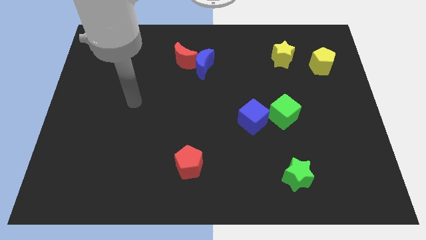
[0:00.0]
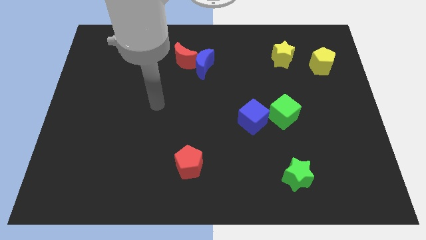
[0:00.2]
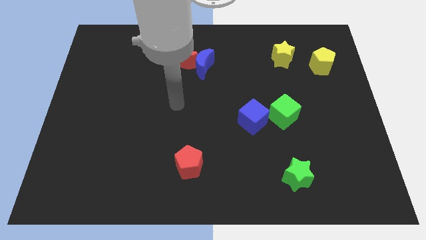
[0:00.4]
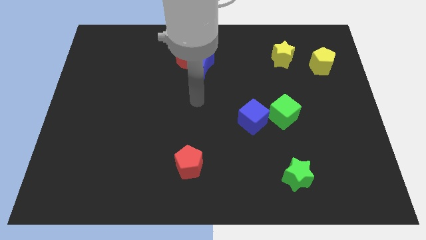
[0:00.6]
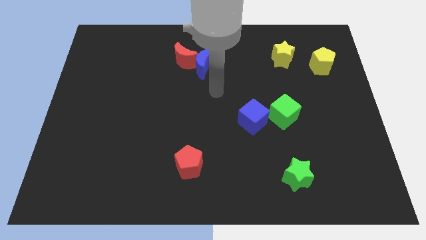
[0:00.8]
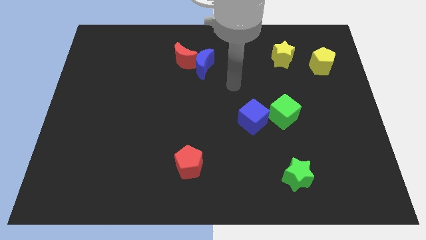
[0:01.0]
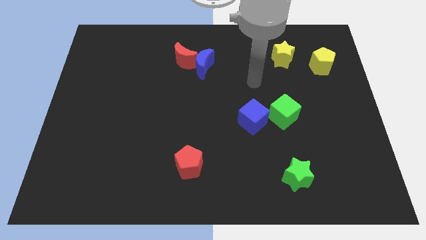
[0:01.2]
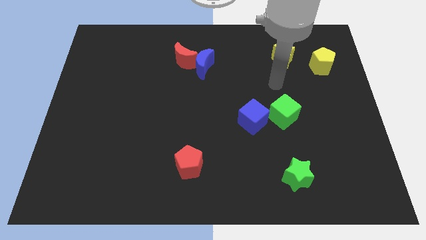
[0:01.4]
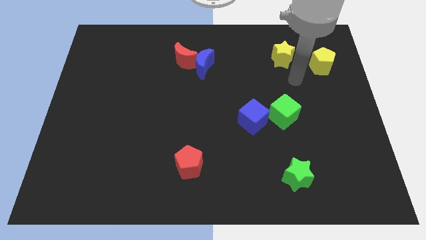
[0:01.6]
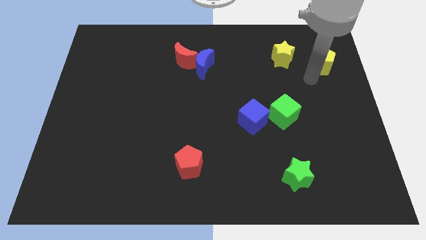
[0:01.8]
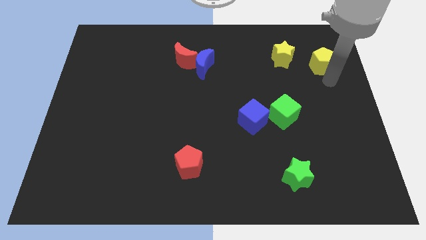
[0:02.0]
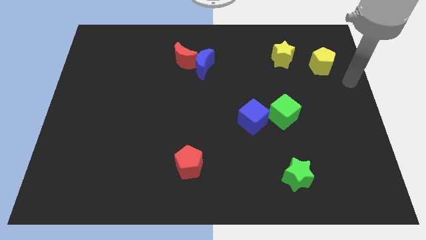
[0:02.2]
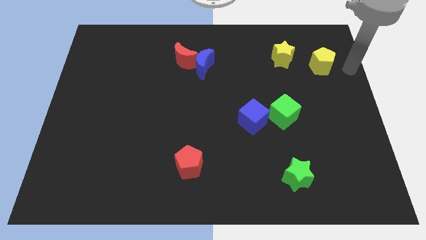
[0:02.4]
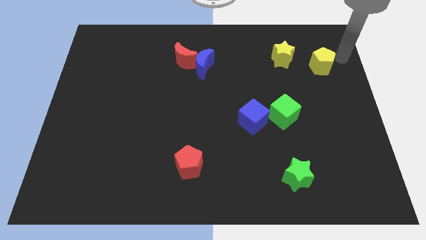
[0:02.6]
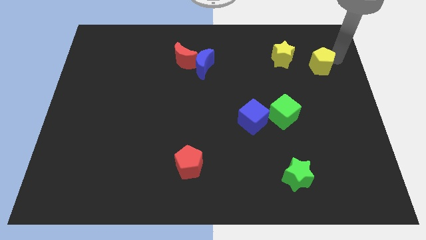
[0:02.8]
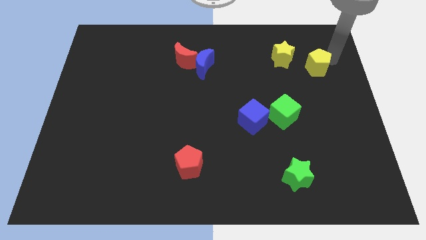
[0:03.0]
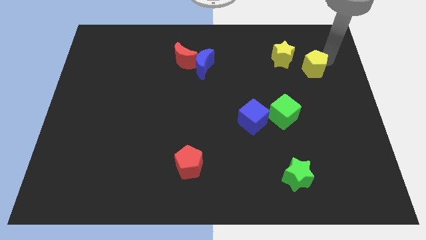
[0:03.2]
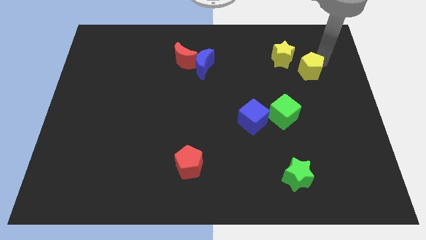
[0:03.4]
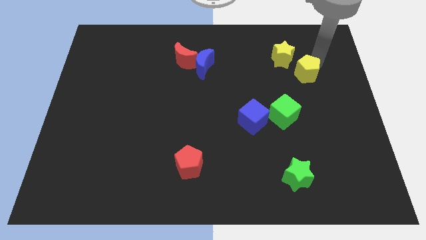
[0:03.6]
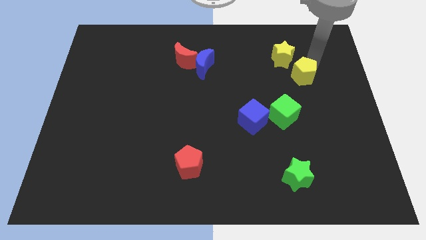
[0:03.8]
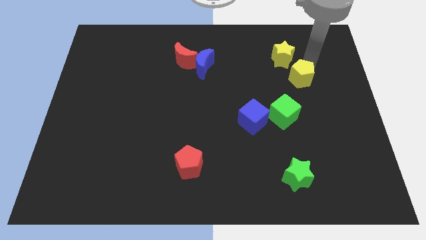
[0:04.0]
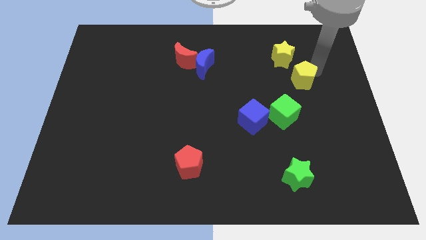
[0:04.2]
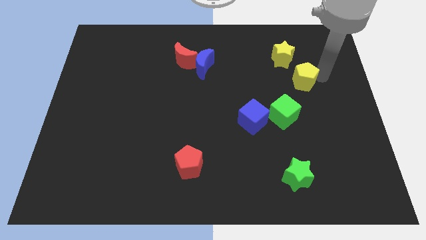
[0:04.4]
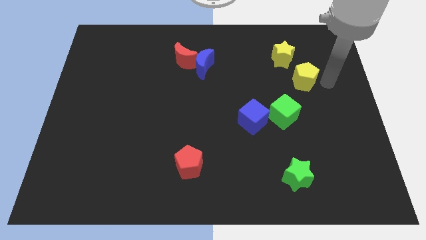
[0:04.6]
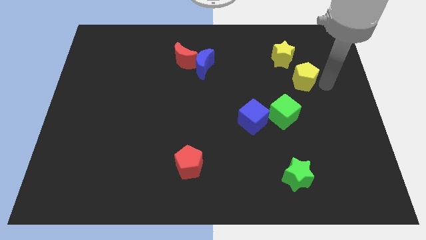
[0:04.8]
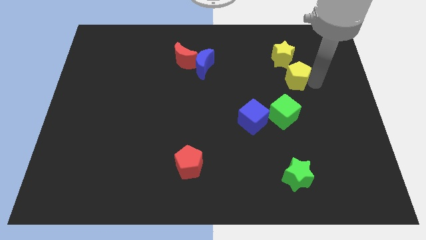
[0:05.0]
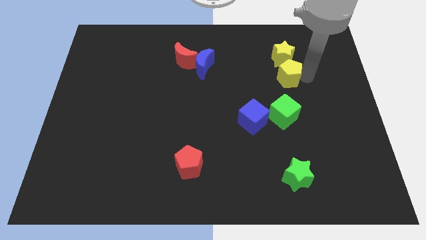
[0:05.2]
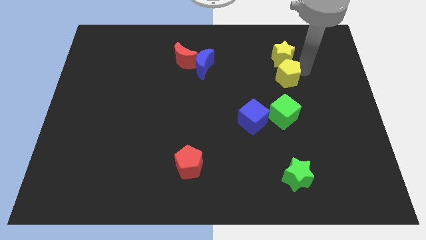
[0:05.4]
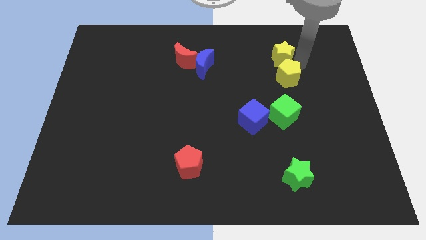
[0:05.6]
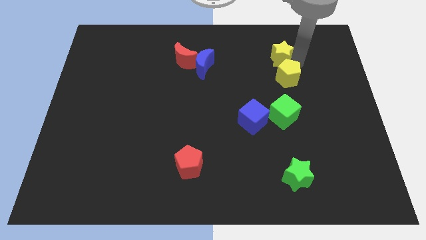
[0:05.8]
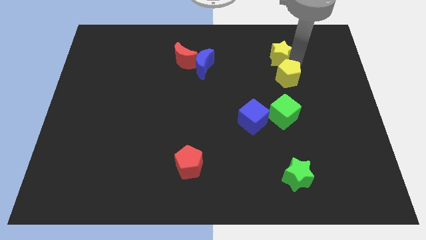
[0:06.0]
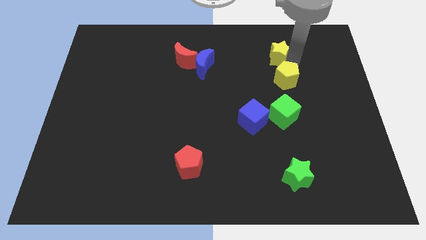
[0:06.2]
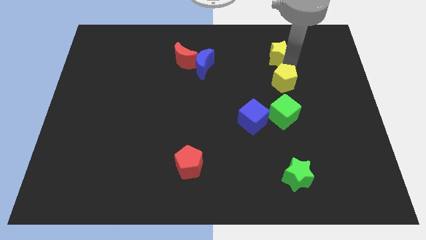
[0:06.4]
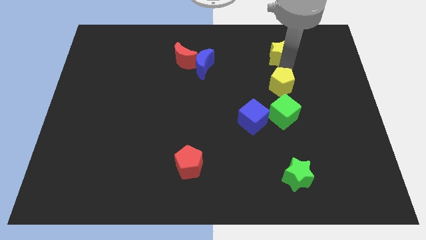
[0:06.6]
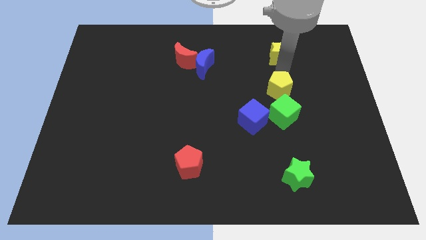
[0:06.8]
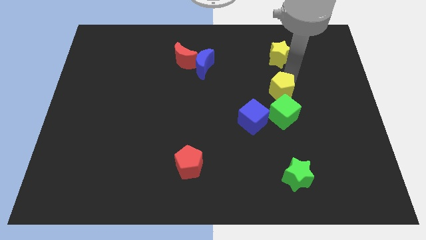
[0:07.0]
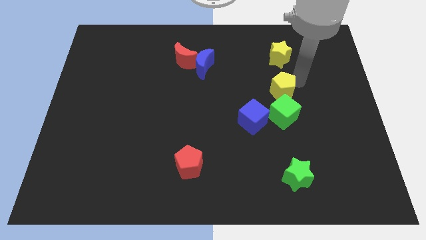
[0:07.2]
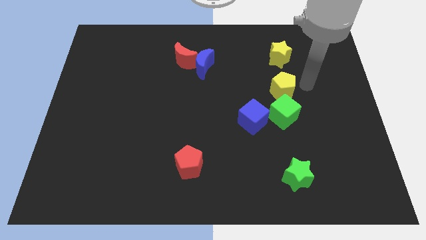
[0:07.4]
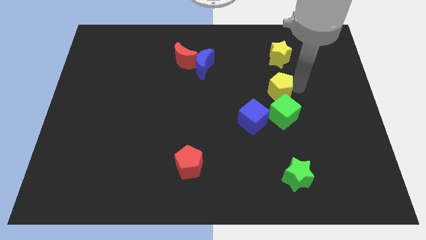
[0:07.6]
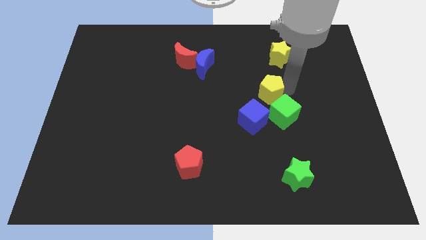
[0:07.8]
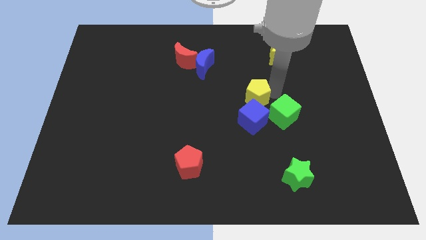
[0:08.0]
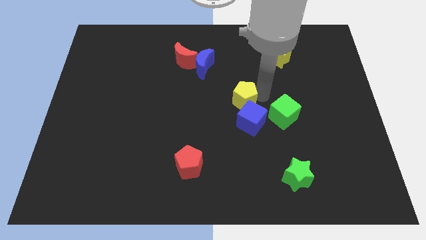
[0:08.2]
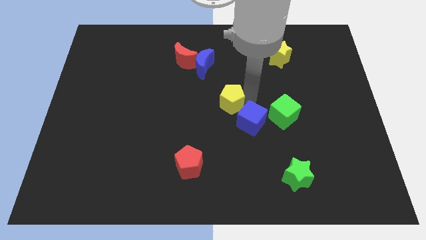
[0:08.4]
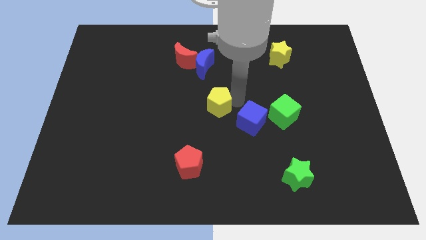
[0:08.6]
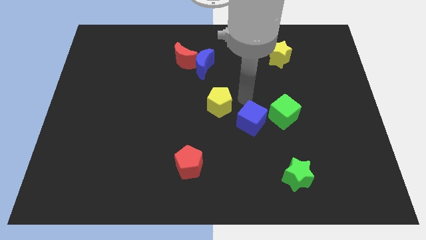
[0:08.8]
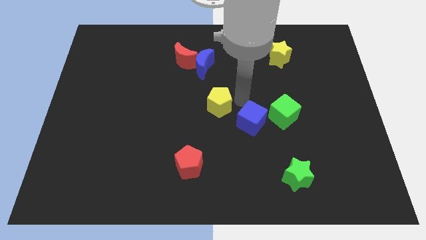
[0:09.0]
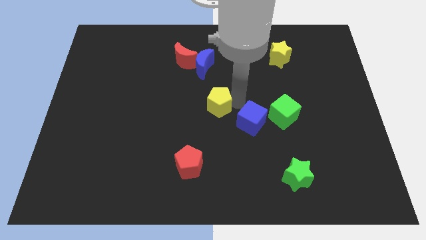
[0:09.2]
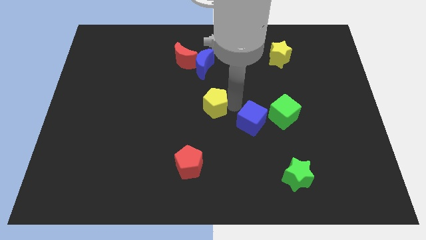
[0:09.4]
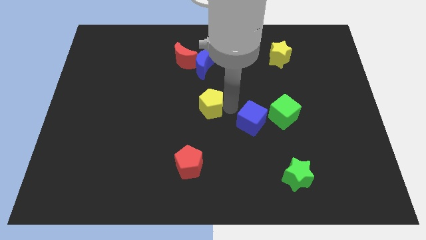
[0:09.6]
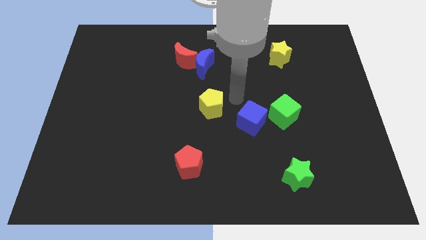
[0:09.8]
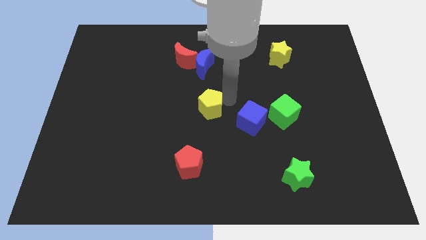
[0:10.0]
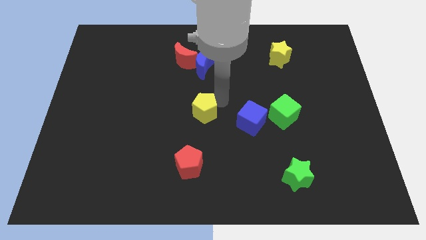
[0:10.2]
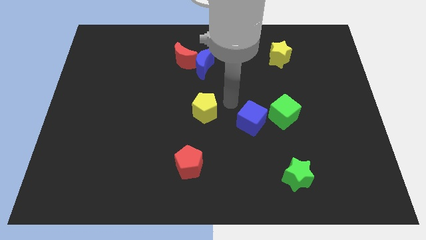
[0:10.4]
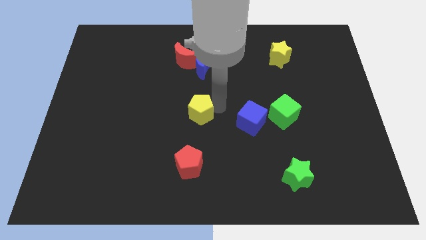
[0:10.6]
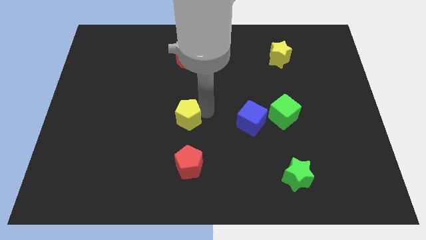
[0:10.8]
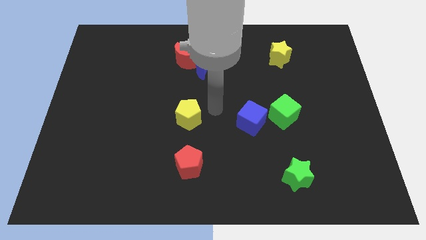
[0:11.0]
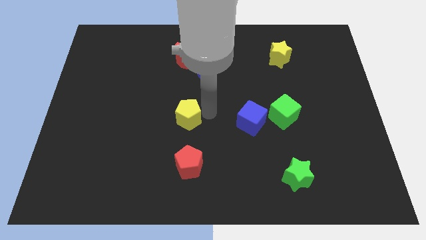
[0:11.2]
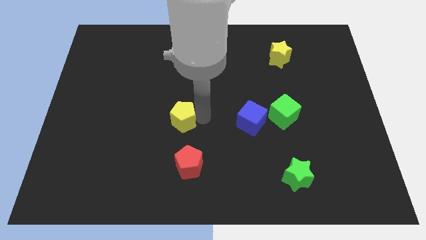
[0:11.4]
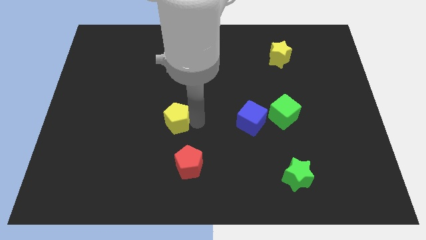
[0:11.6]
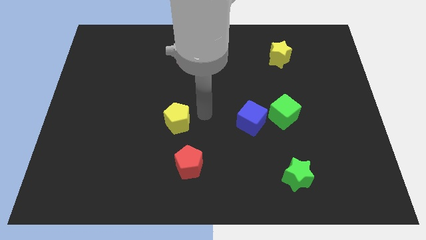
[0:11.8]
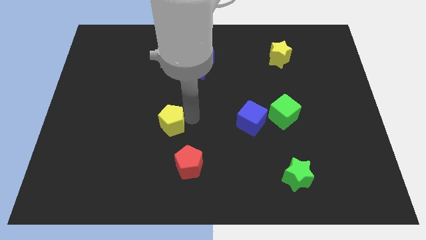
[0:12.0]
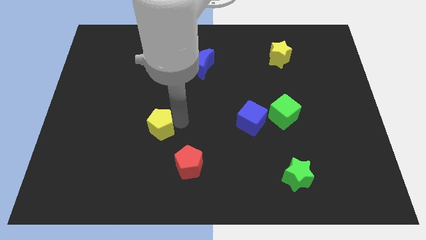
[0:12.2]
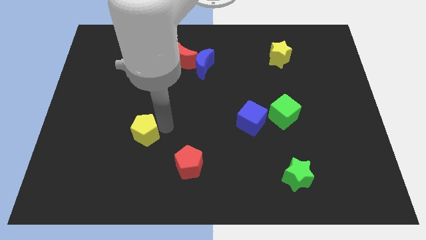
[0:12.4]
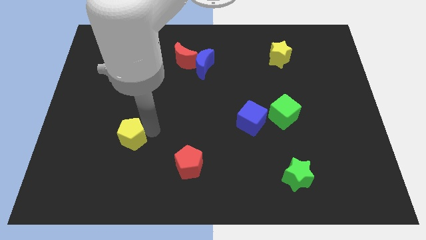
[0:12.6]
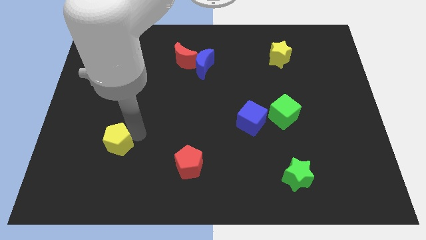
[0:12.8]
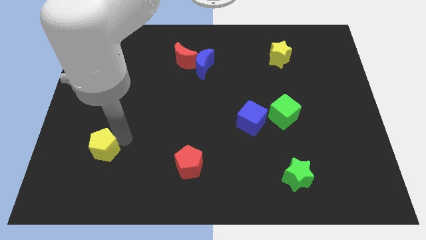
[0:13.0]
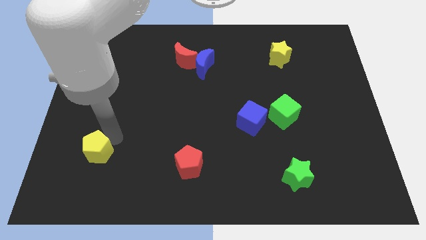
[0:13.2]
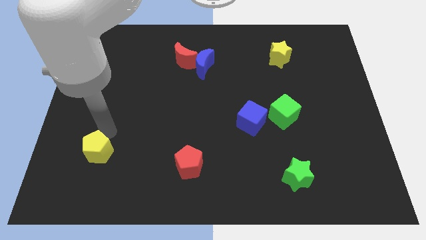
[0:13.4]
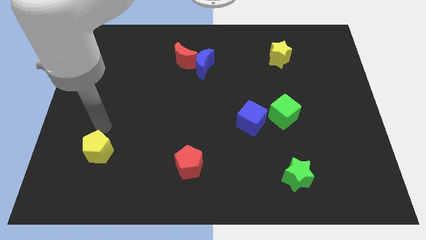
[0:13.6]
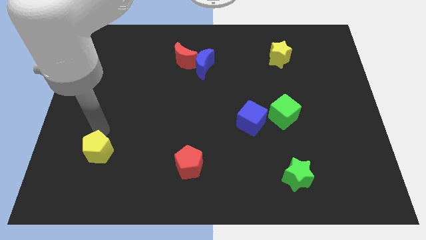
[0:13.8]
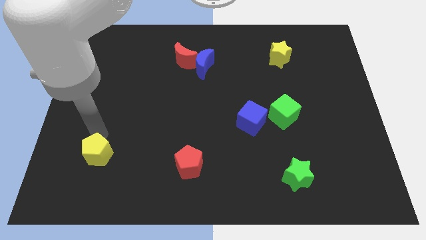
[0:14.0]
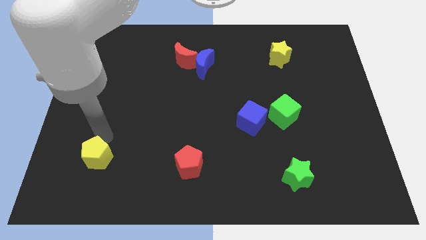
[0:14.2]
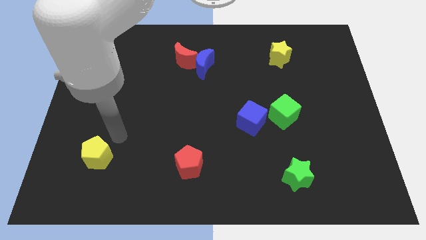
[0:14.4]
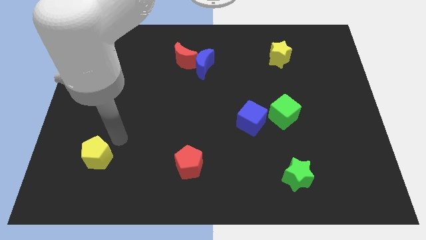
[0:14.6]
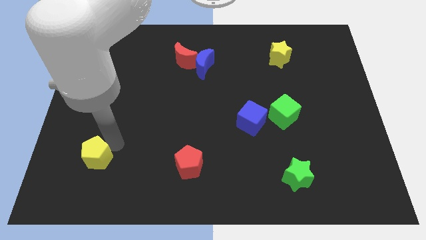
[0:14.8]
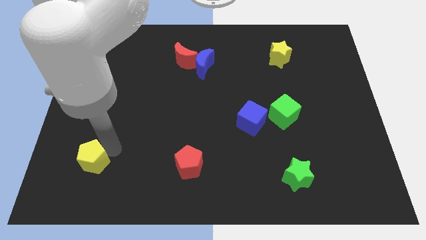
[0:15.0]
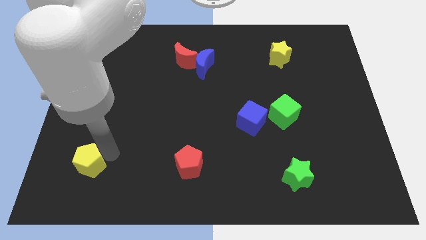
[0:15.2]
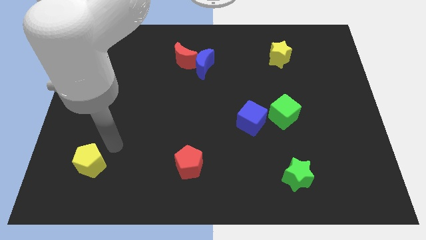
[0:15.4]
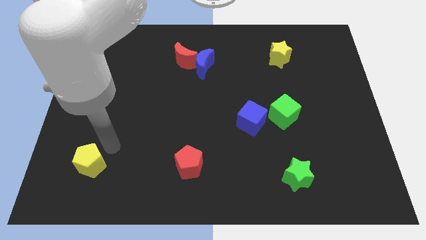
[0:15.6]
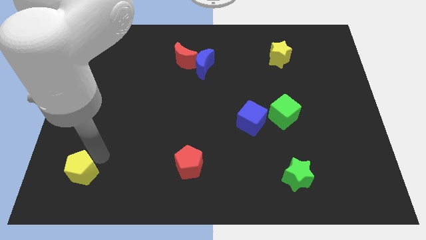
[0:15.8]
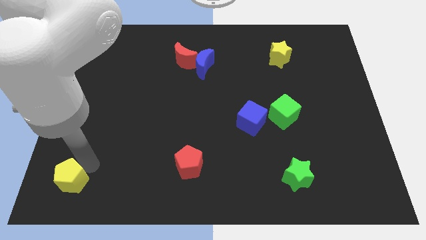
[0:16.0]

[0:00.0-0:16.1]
put the yellow pentagon to the bottom left of the board
